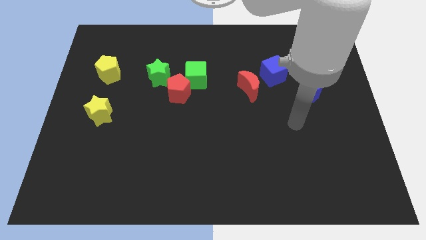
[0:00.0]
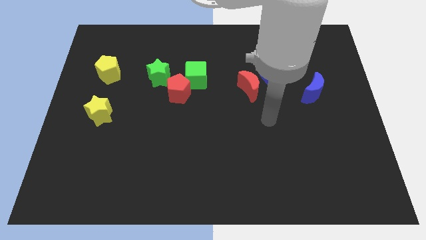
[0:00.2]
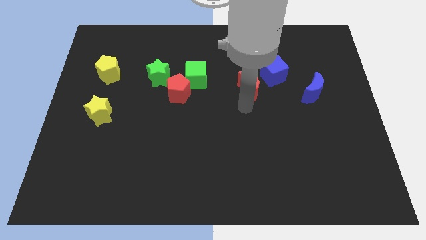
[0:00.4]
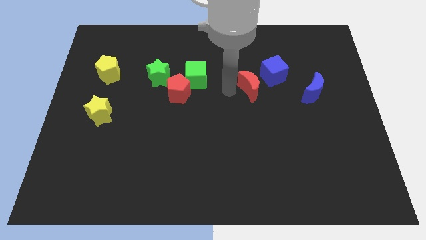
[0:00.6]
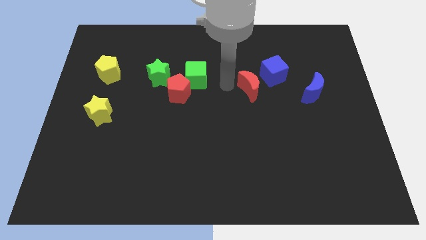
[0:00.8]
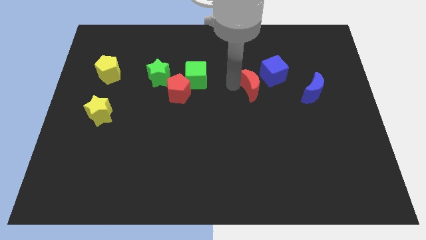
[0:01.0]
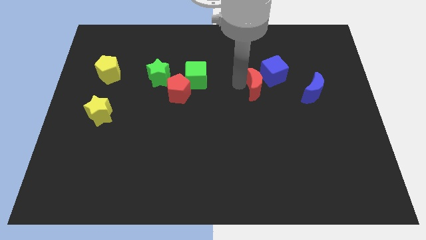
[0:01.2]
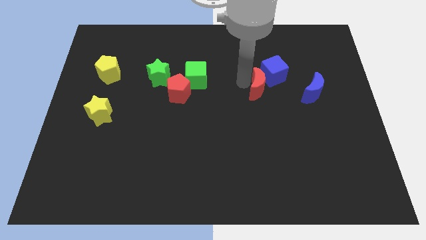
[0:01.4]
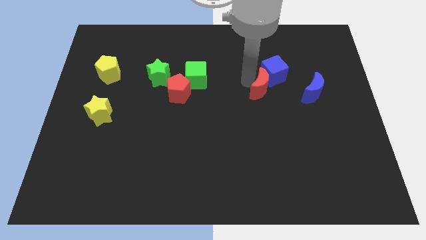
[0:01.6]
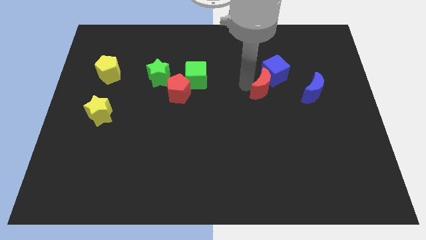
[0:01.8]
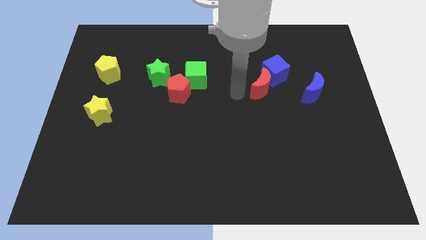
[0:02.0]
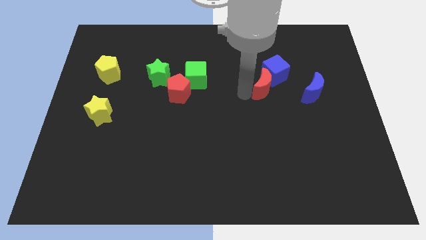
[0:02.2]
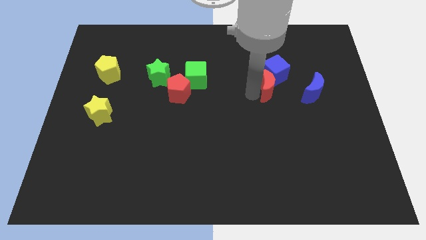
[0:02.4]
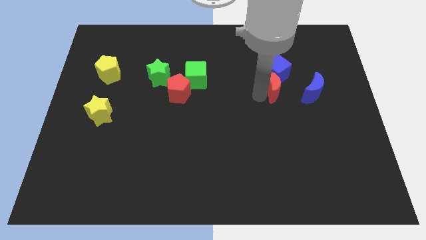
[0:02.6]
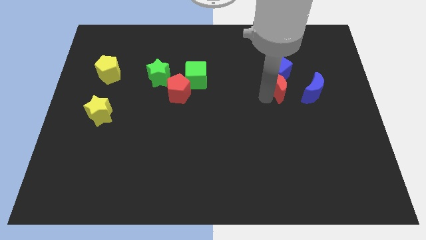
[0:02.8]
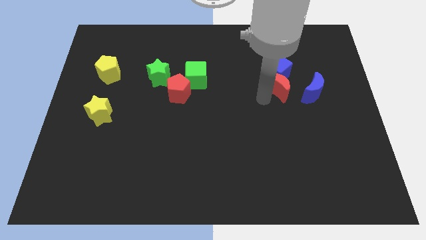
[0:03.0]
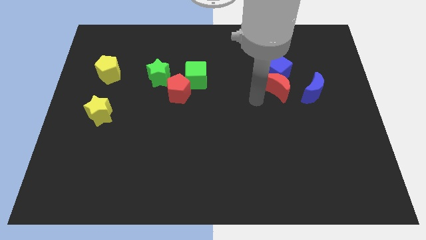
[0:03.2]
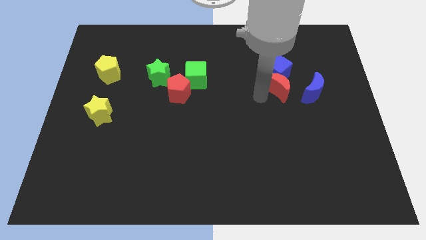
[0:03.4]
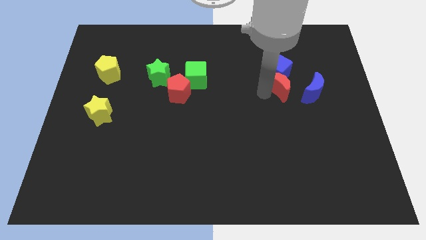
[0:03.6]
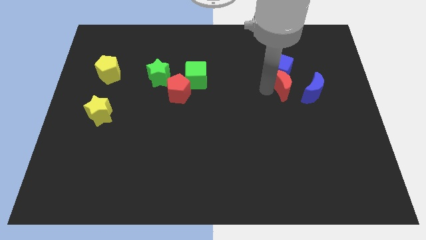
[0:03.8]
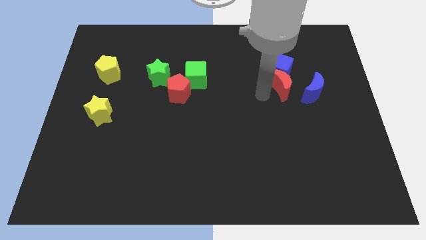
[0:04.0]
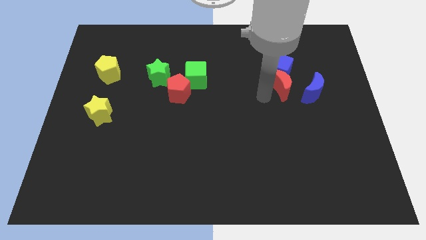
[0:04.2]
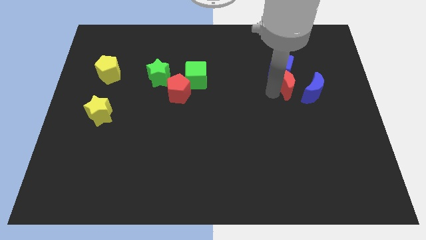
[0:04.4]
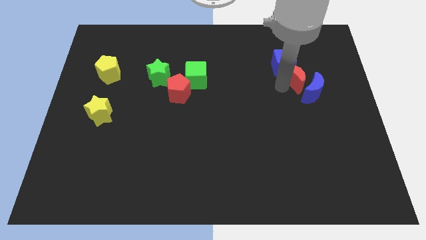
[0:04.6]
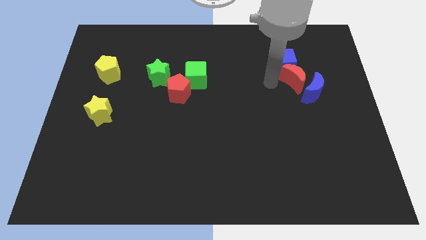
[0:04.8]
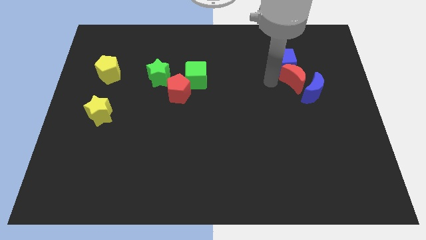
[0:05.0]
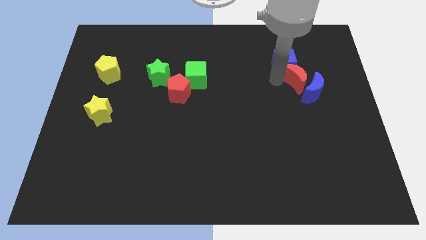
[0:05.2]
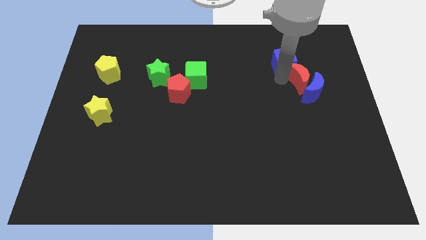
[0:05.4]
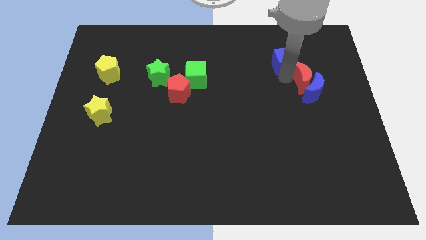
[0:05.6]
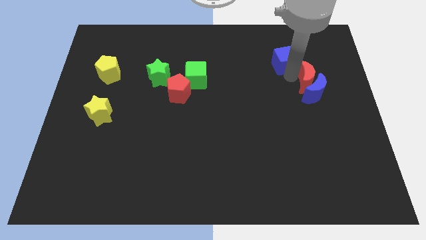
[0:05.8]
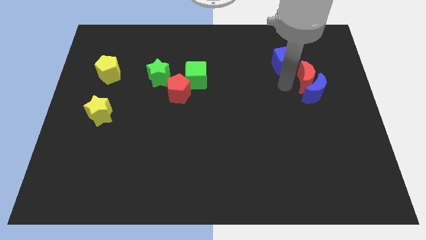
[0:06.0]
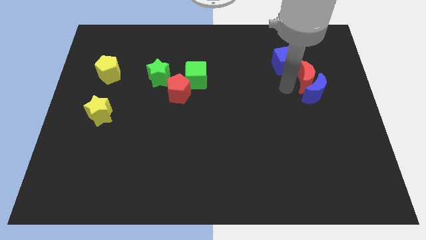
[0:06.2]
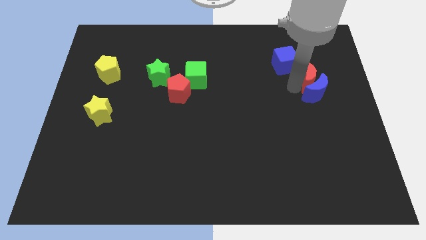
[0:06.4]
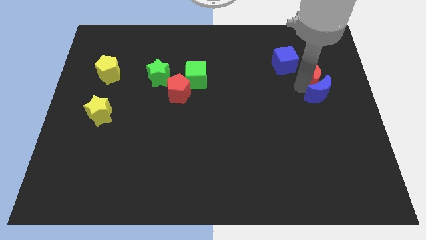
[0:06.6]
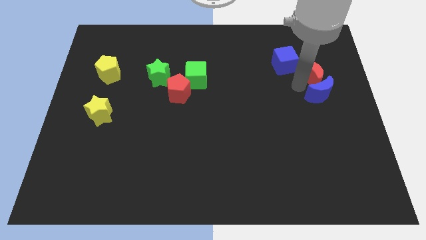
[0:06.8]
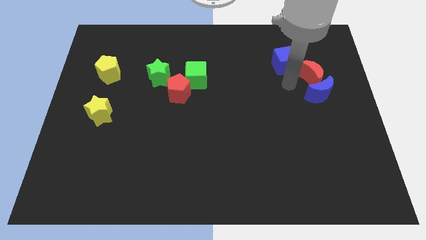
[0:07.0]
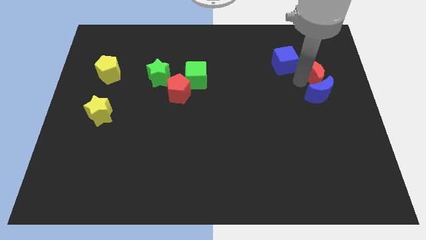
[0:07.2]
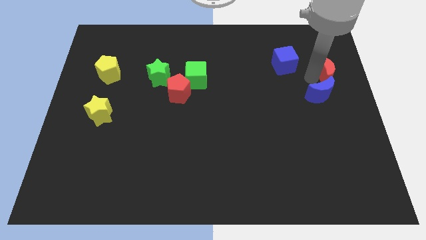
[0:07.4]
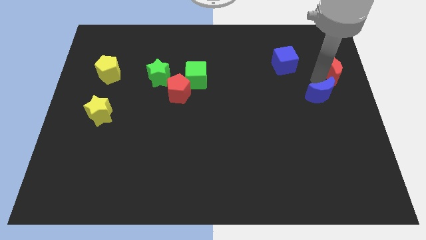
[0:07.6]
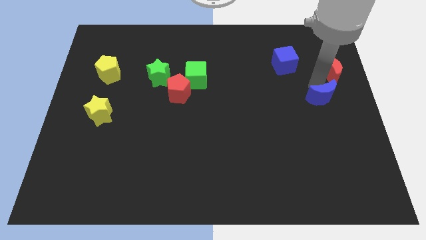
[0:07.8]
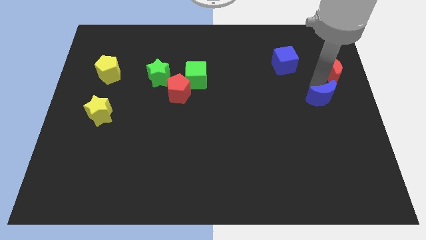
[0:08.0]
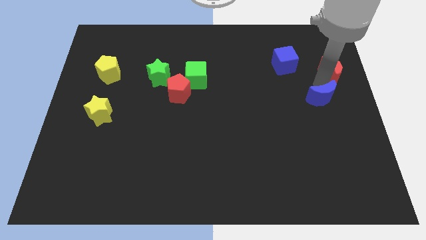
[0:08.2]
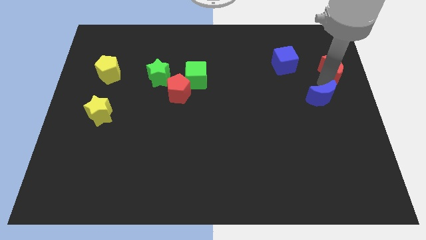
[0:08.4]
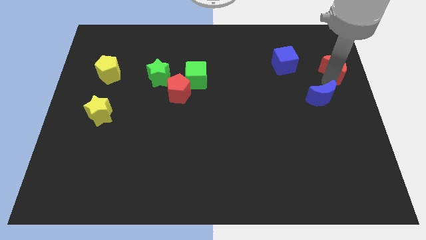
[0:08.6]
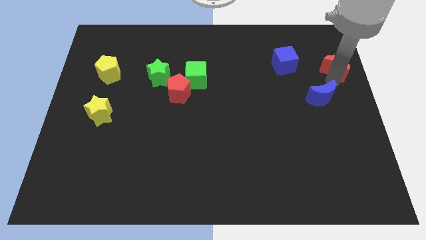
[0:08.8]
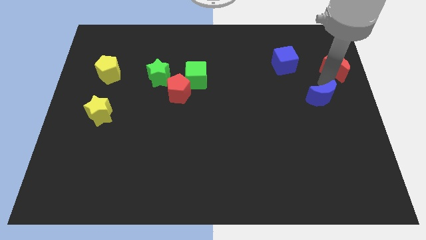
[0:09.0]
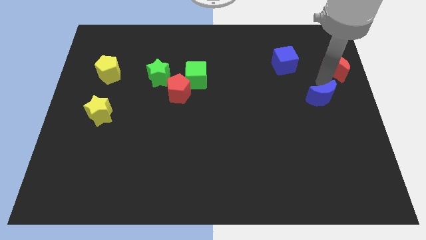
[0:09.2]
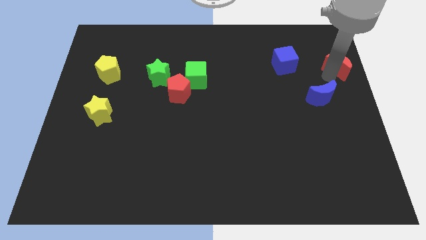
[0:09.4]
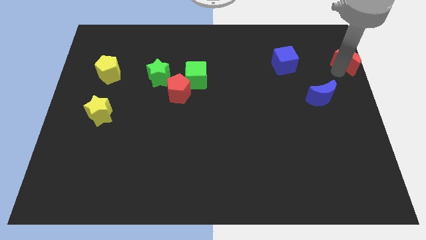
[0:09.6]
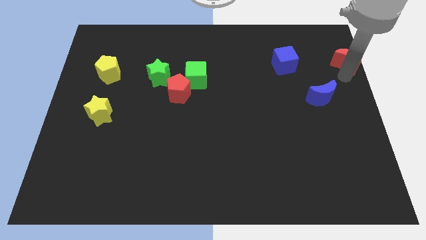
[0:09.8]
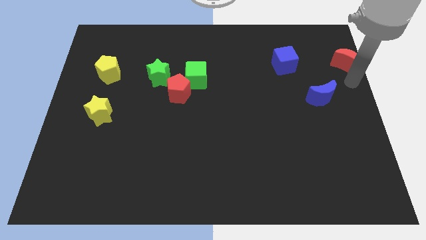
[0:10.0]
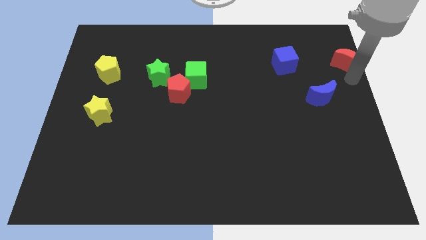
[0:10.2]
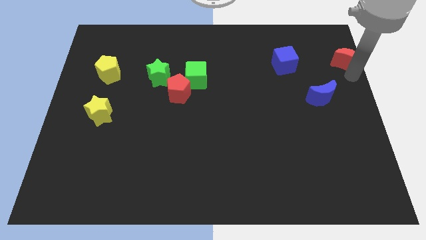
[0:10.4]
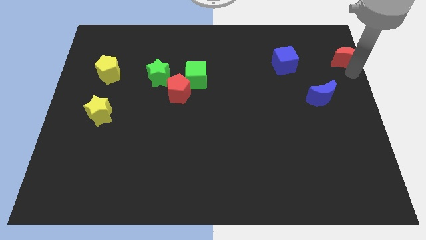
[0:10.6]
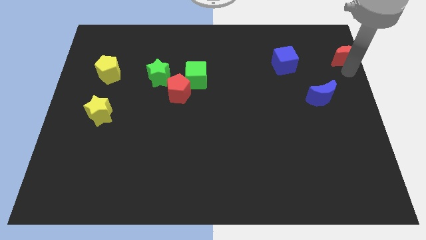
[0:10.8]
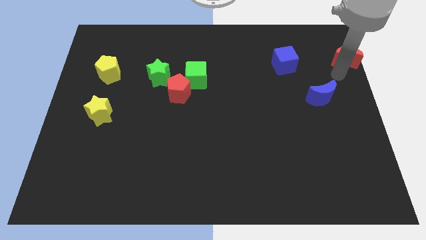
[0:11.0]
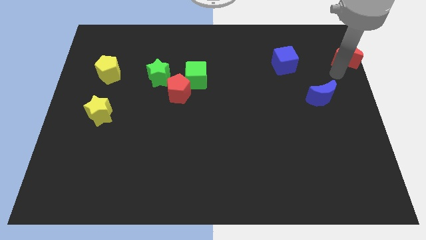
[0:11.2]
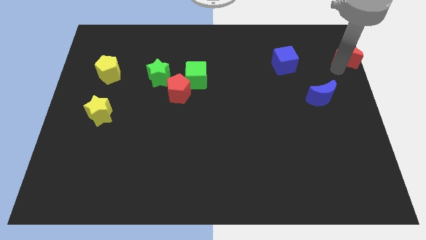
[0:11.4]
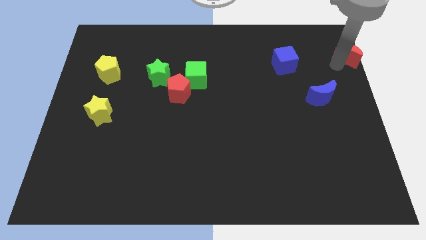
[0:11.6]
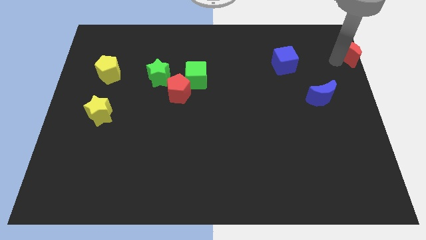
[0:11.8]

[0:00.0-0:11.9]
move the red moon to the top right of the board

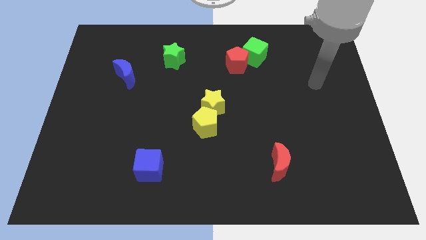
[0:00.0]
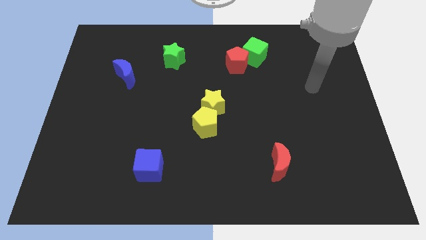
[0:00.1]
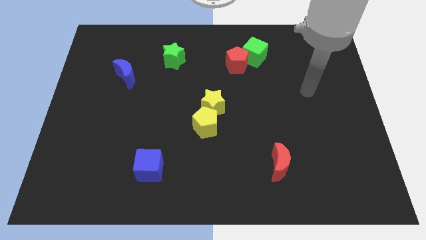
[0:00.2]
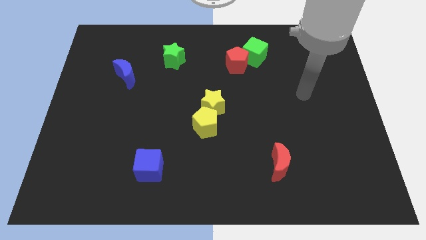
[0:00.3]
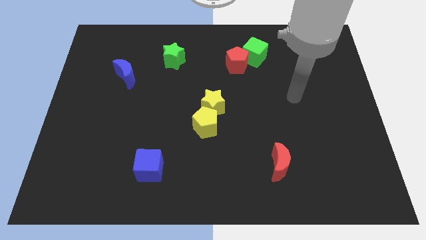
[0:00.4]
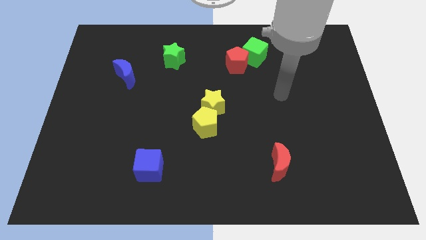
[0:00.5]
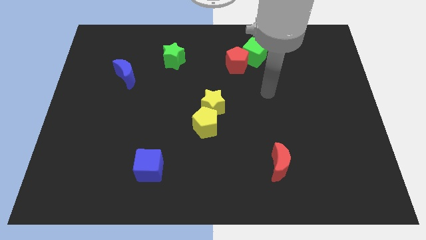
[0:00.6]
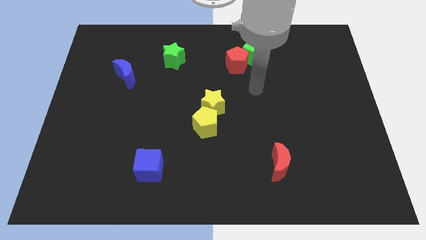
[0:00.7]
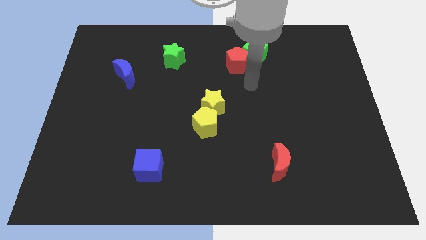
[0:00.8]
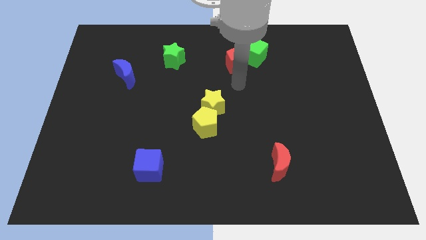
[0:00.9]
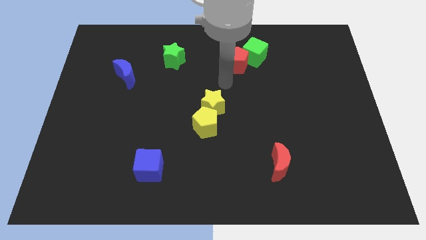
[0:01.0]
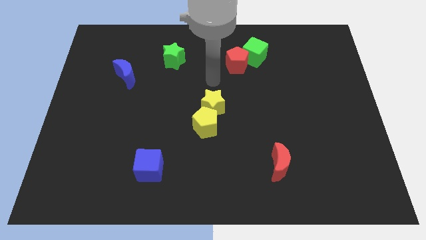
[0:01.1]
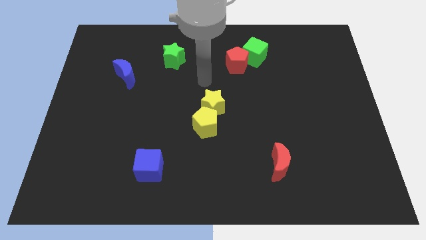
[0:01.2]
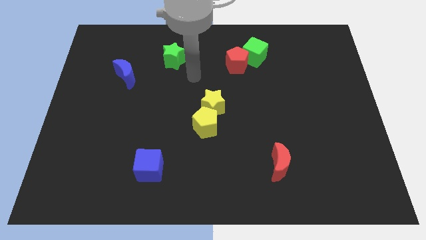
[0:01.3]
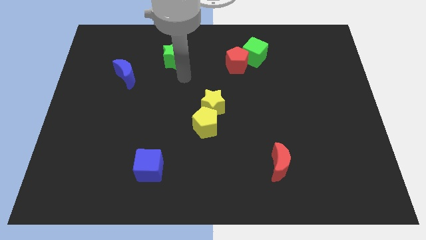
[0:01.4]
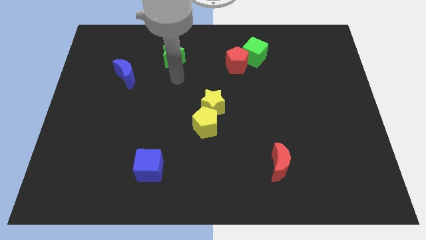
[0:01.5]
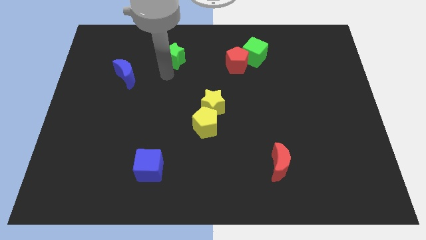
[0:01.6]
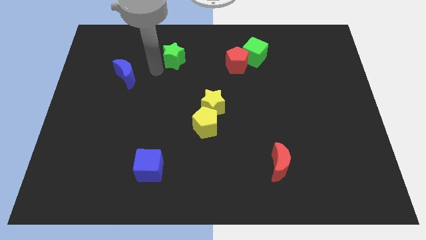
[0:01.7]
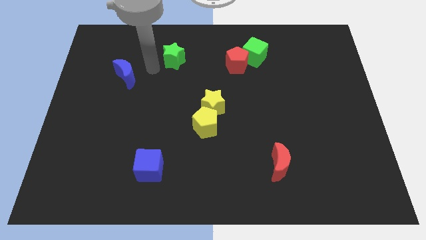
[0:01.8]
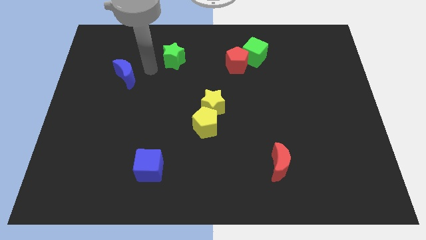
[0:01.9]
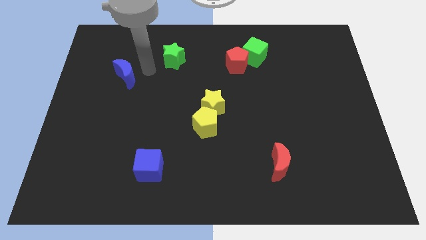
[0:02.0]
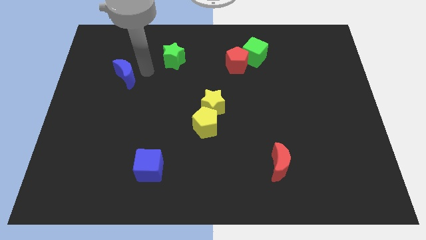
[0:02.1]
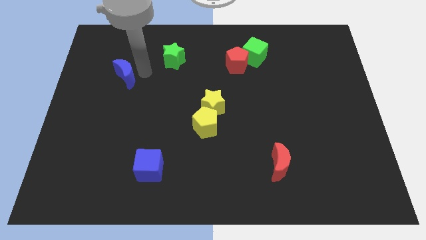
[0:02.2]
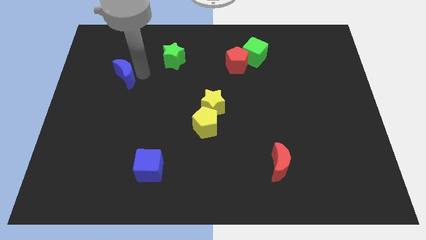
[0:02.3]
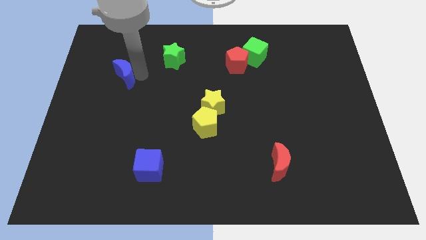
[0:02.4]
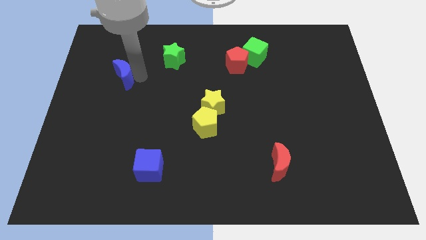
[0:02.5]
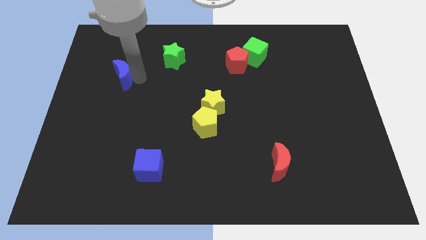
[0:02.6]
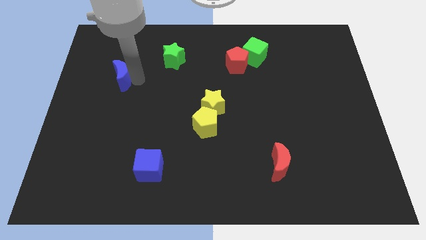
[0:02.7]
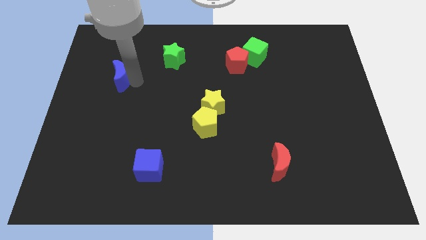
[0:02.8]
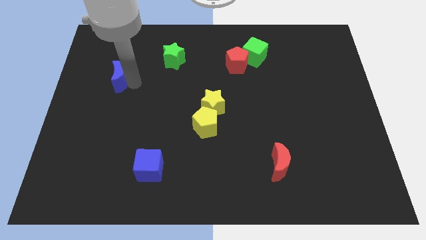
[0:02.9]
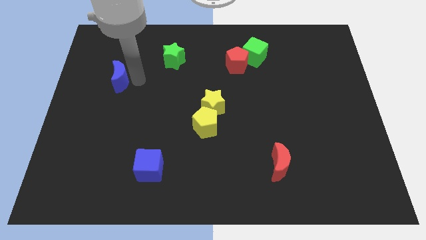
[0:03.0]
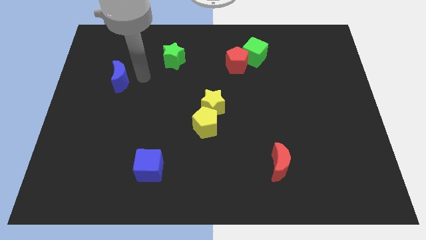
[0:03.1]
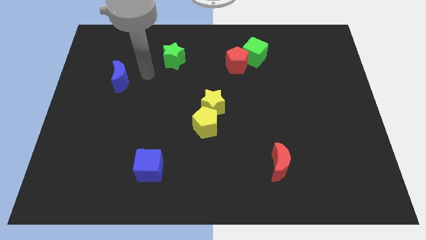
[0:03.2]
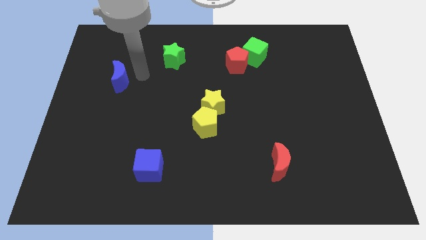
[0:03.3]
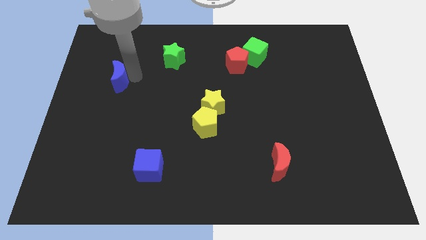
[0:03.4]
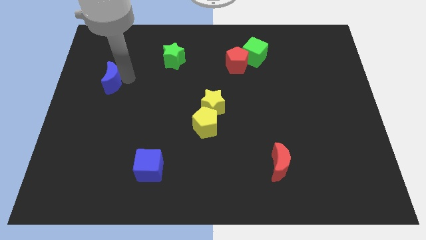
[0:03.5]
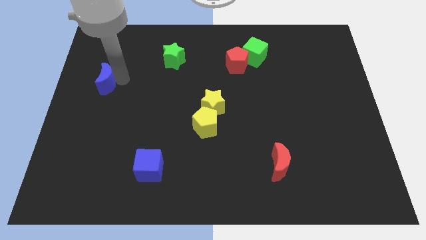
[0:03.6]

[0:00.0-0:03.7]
slide the blue moon to the left side of the board
